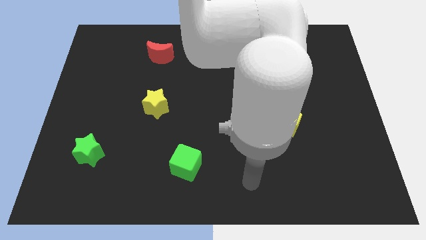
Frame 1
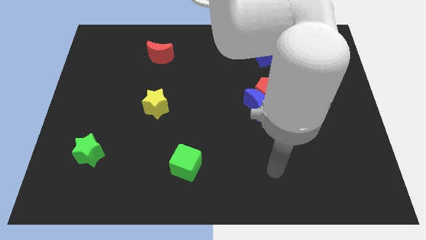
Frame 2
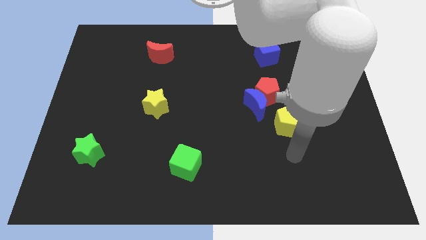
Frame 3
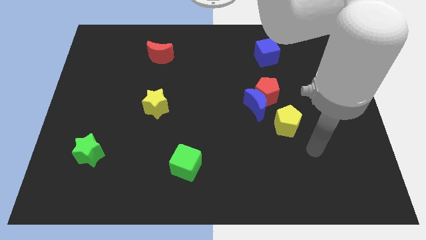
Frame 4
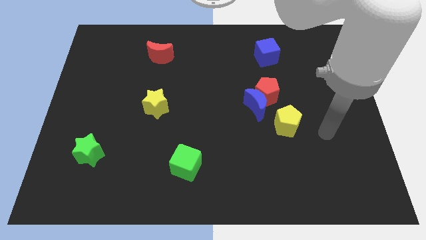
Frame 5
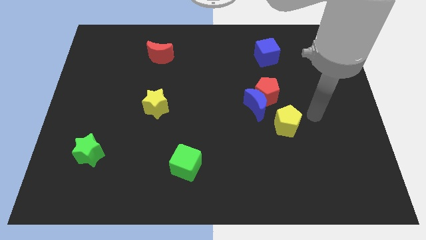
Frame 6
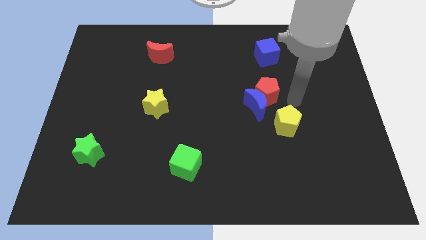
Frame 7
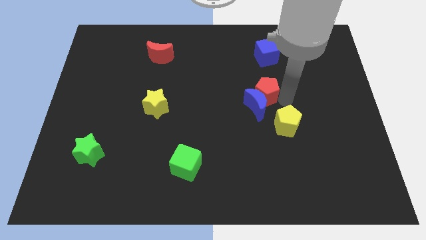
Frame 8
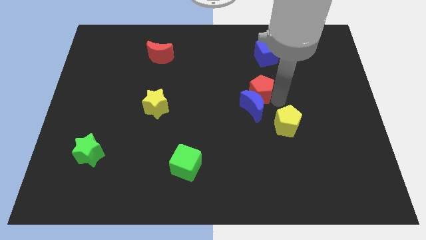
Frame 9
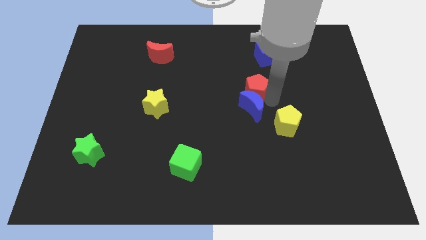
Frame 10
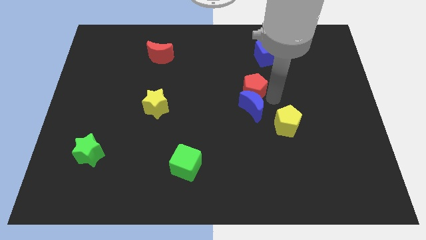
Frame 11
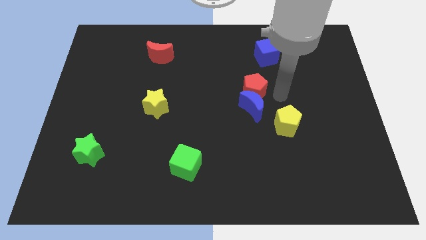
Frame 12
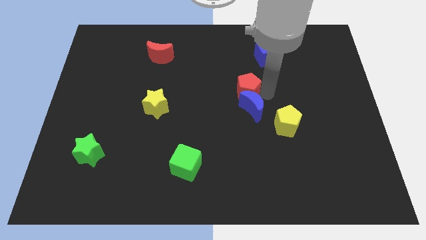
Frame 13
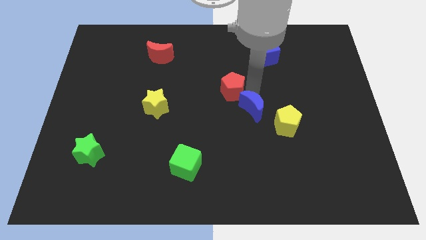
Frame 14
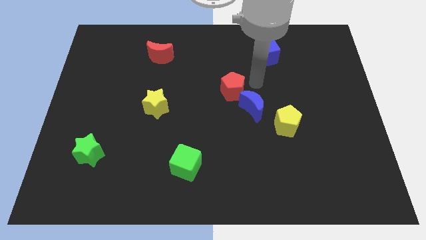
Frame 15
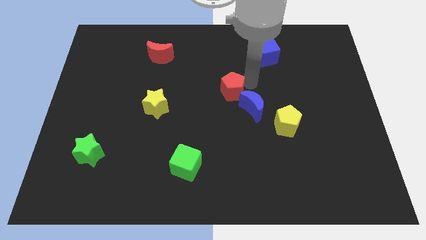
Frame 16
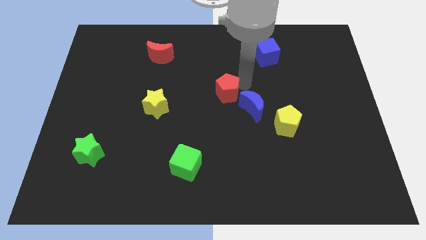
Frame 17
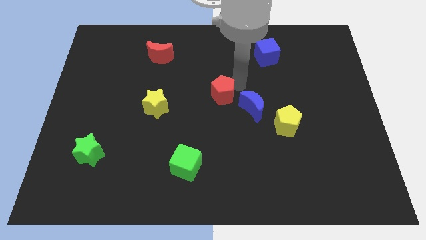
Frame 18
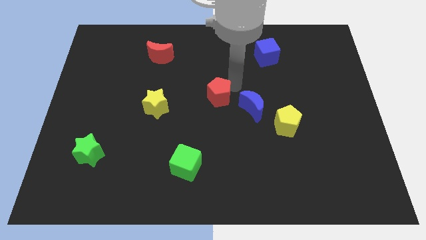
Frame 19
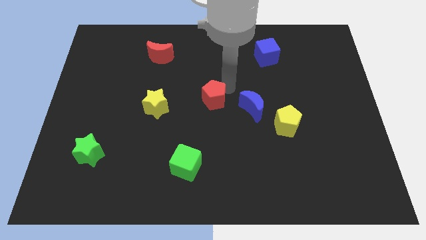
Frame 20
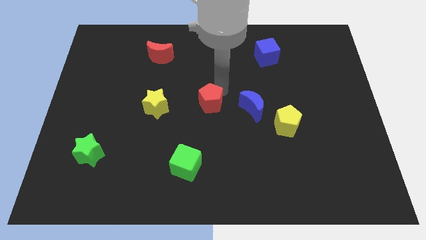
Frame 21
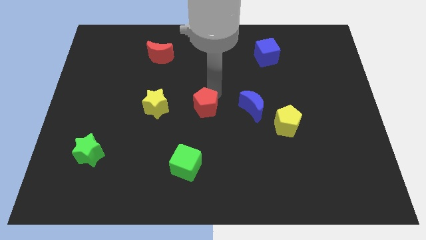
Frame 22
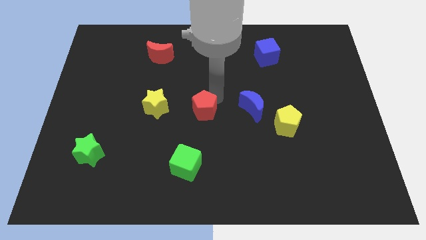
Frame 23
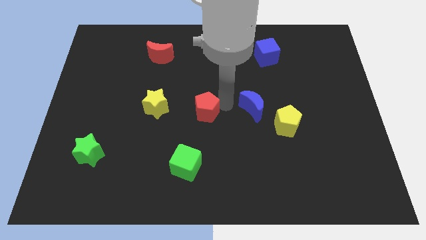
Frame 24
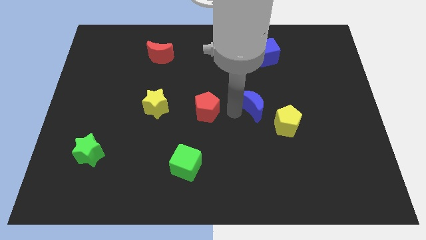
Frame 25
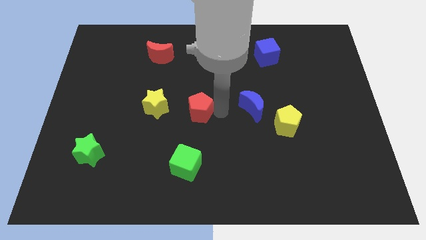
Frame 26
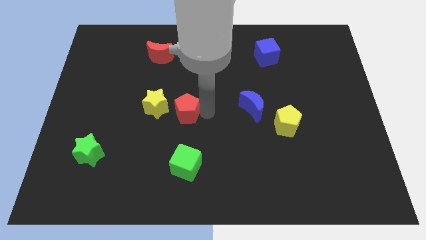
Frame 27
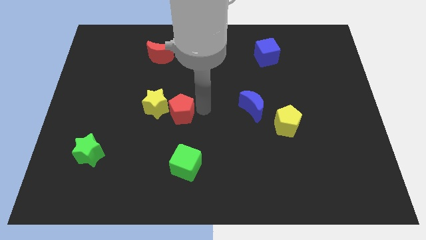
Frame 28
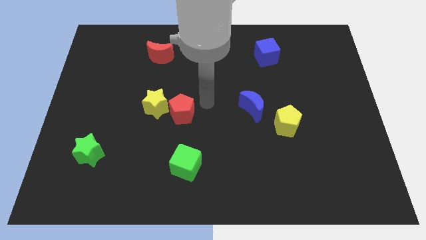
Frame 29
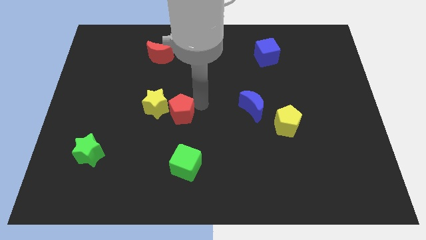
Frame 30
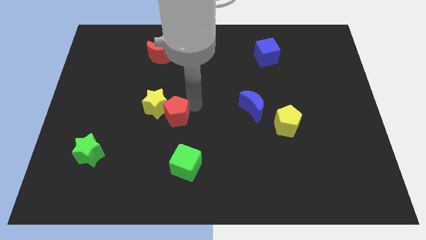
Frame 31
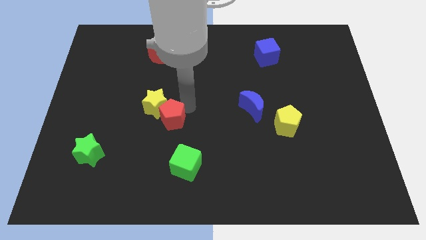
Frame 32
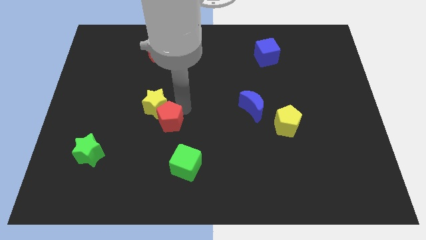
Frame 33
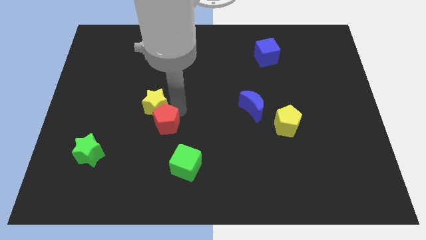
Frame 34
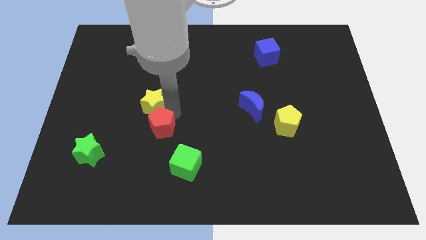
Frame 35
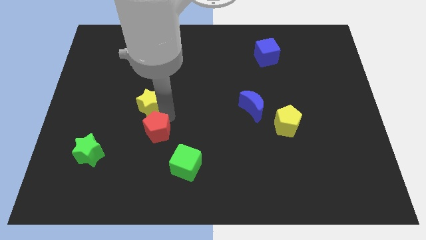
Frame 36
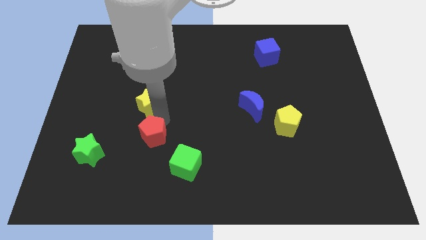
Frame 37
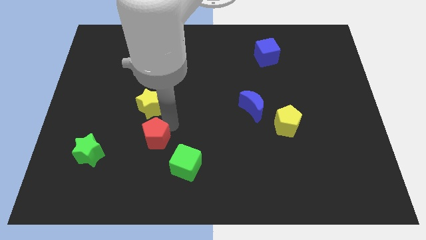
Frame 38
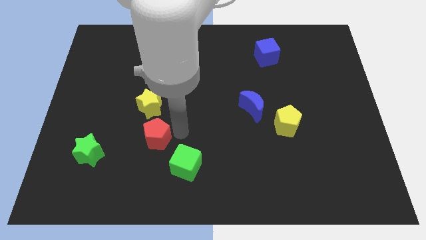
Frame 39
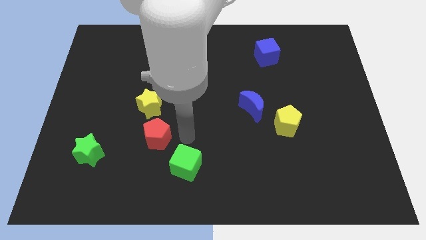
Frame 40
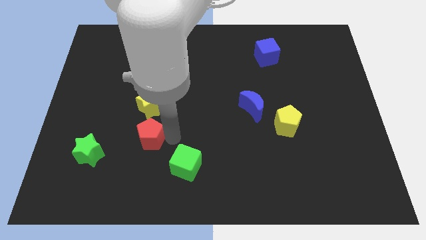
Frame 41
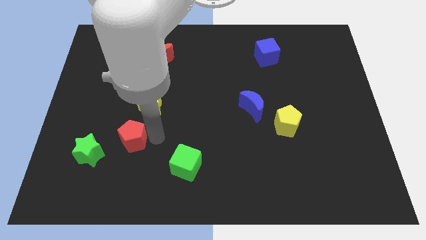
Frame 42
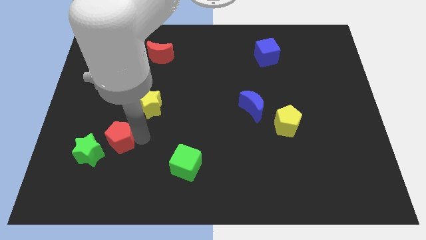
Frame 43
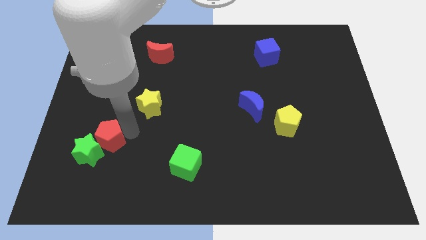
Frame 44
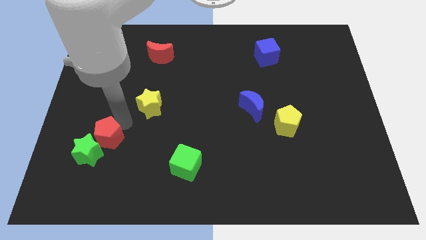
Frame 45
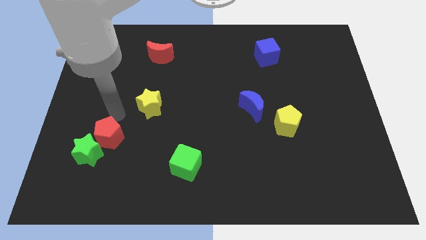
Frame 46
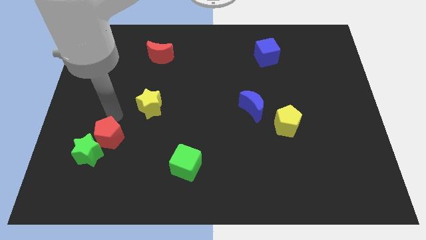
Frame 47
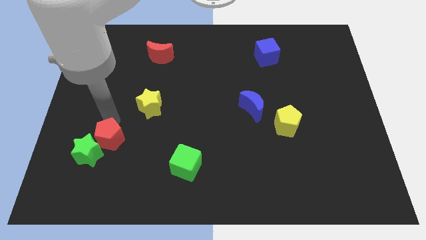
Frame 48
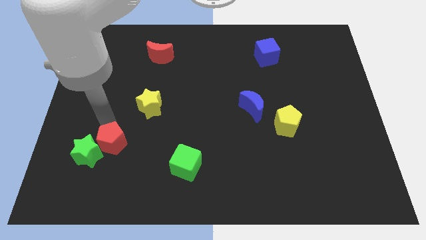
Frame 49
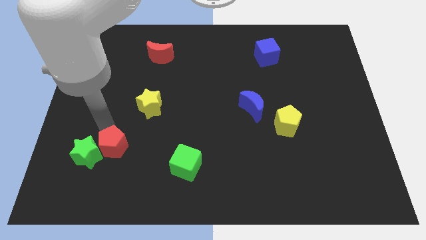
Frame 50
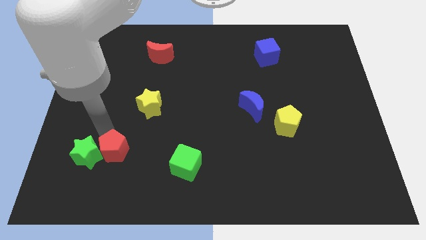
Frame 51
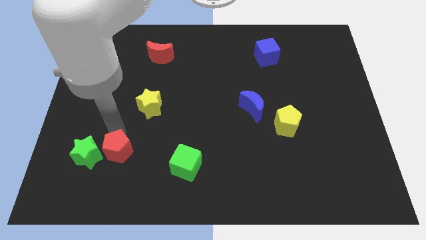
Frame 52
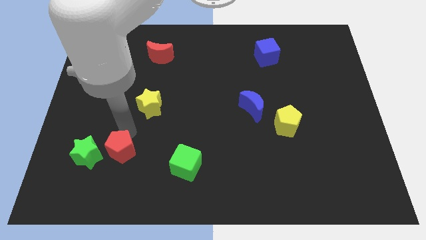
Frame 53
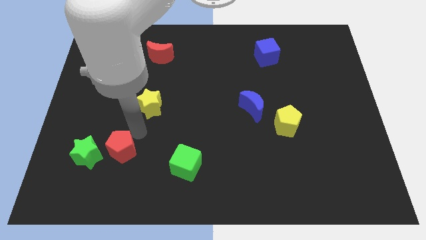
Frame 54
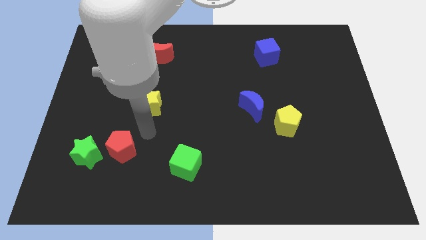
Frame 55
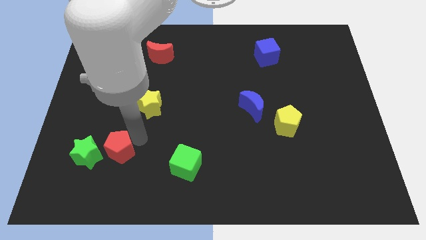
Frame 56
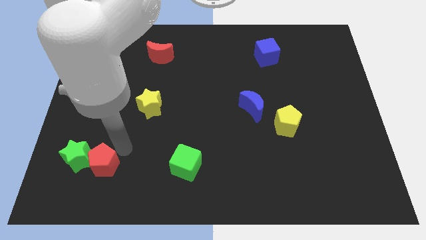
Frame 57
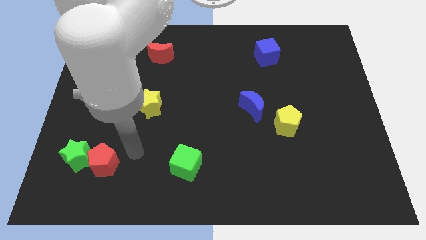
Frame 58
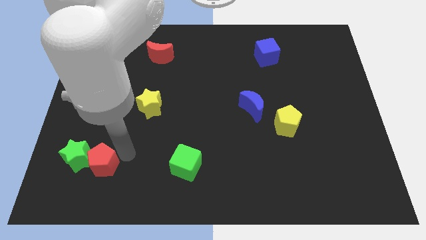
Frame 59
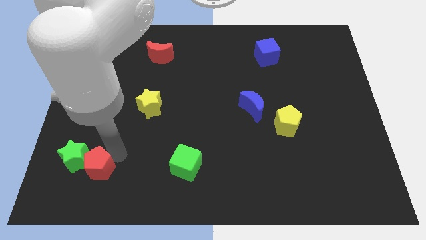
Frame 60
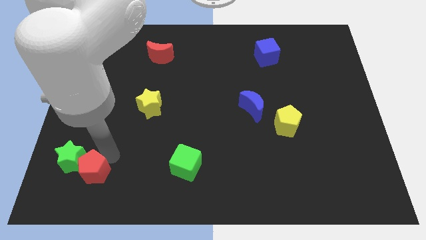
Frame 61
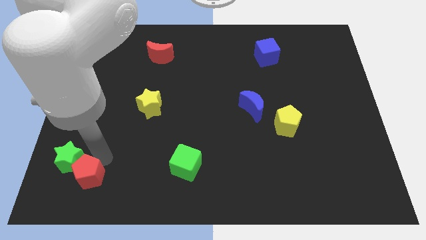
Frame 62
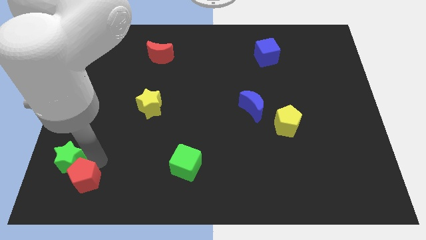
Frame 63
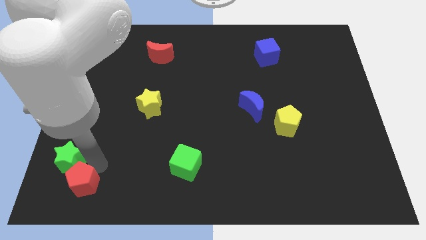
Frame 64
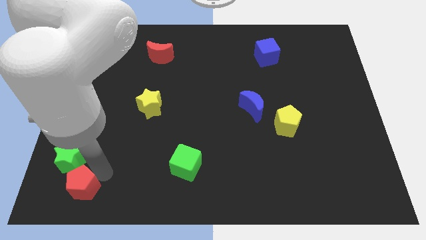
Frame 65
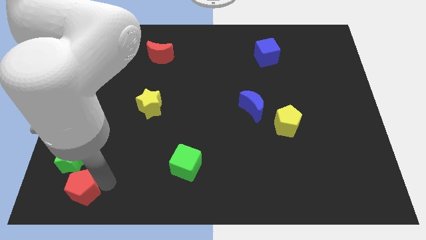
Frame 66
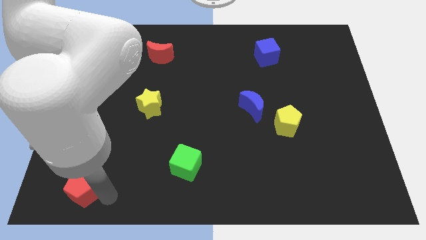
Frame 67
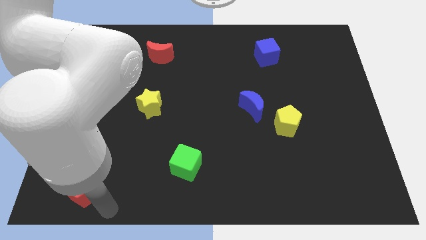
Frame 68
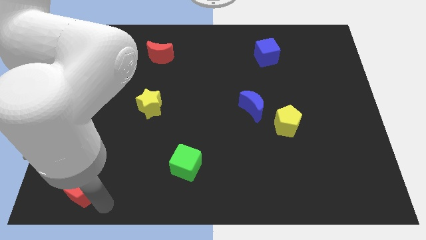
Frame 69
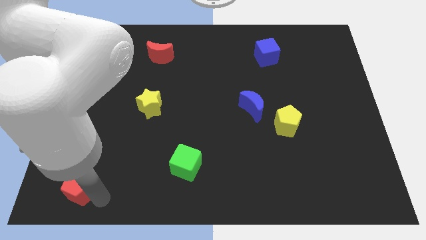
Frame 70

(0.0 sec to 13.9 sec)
slide the red pentagon to the lower left corner

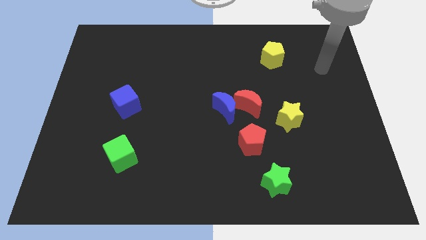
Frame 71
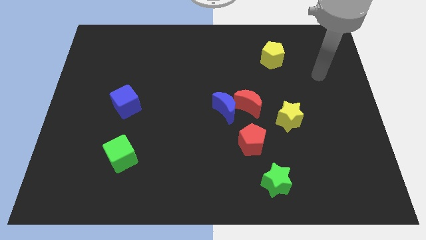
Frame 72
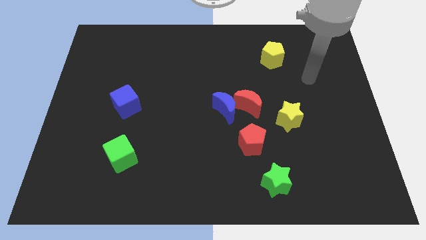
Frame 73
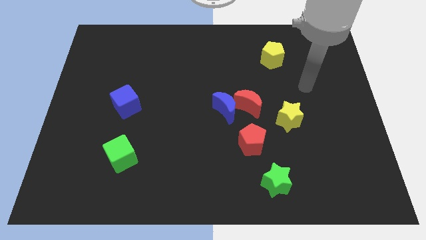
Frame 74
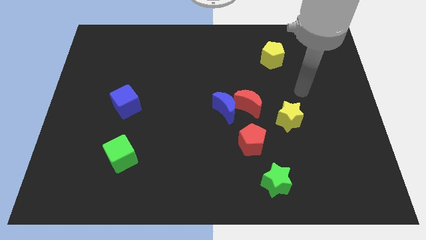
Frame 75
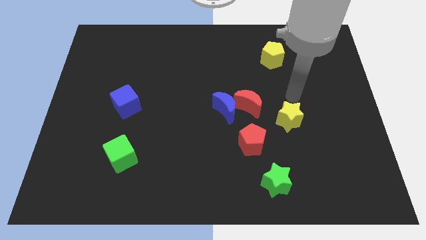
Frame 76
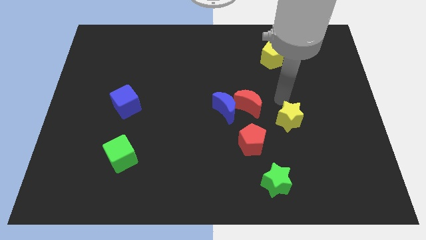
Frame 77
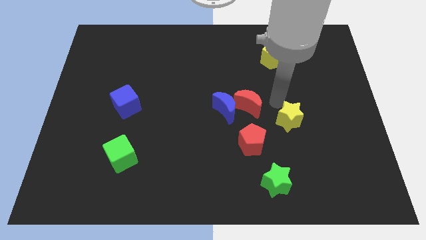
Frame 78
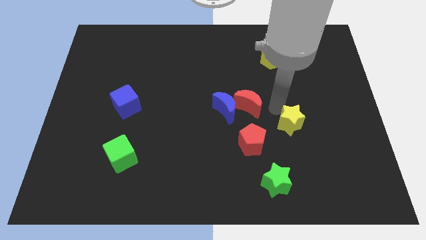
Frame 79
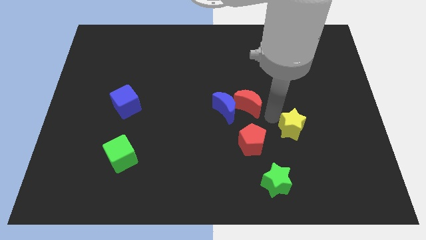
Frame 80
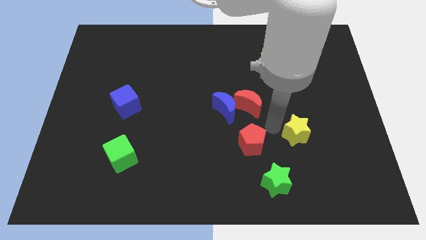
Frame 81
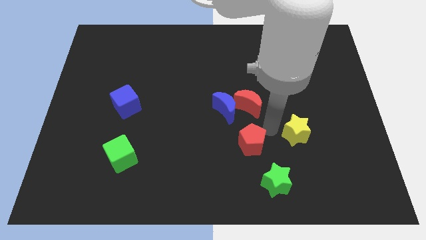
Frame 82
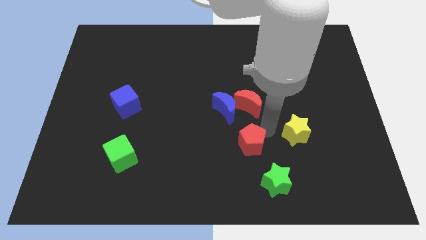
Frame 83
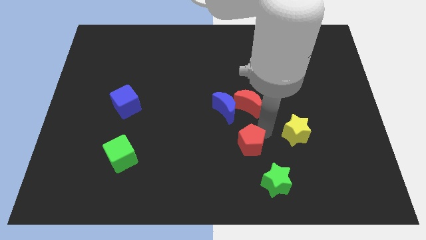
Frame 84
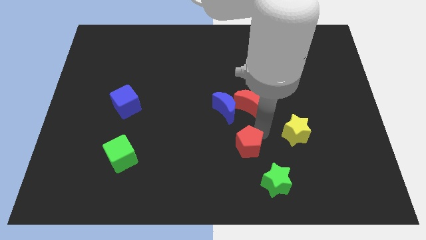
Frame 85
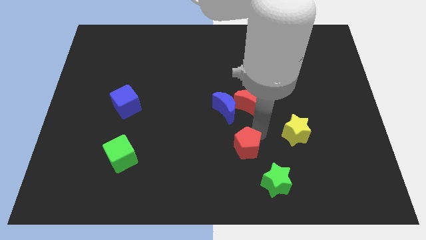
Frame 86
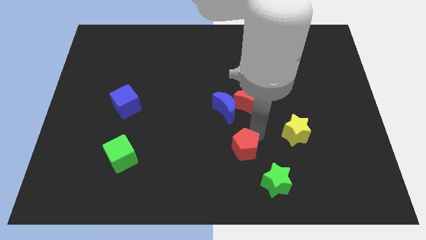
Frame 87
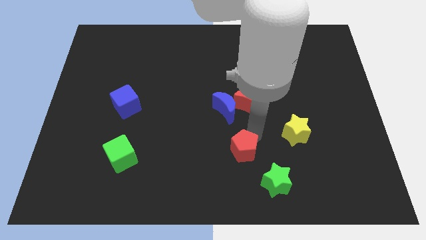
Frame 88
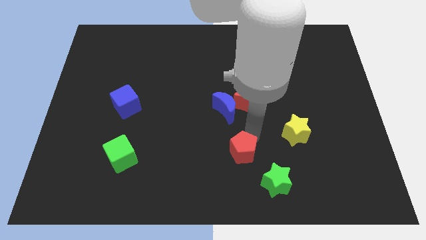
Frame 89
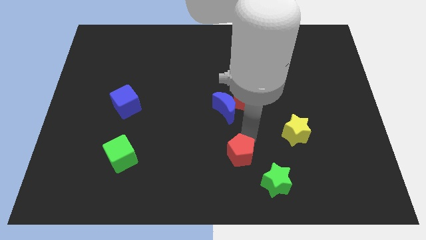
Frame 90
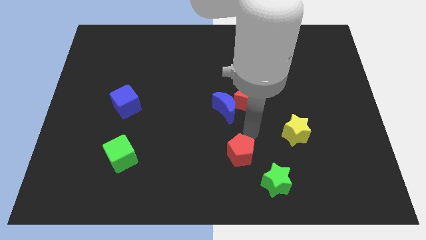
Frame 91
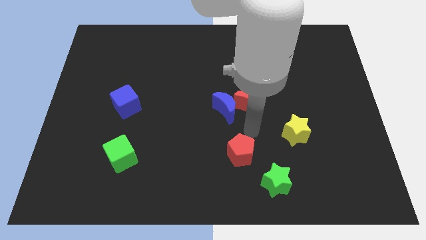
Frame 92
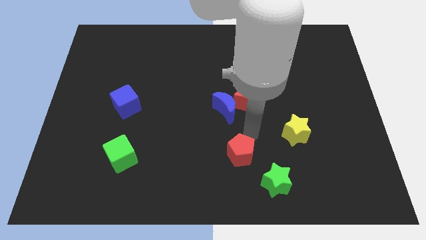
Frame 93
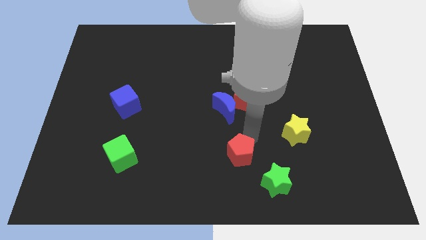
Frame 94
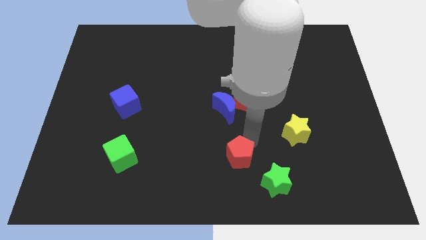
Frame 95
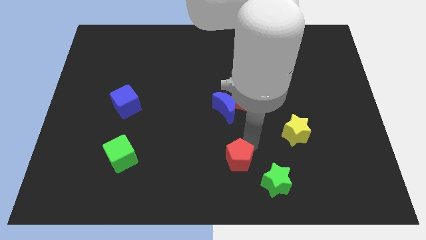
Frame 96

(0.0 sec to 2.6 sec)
slide the red pentagon to the bottom side
